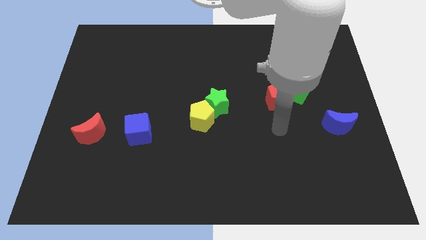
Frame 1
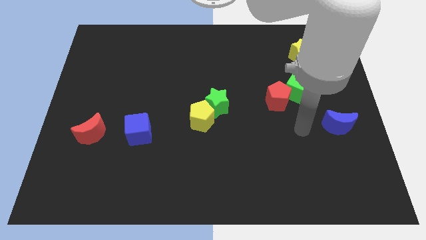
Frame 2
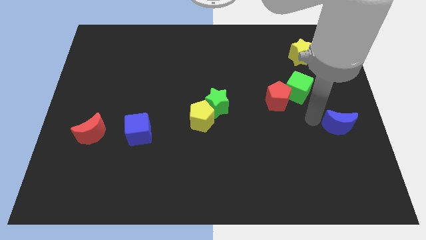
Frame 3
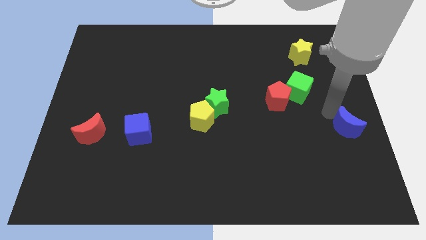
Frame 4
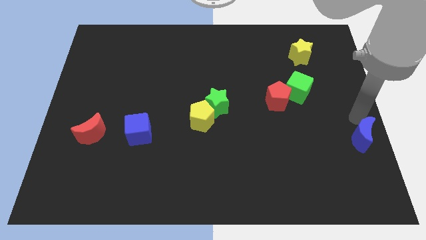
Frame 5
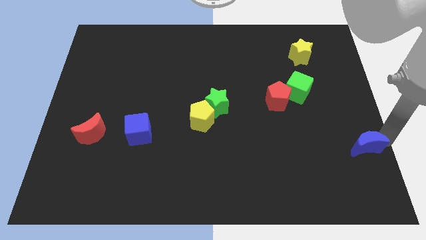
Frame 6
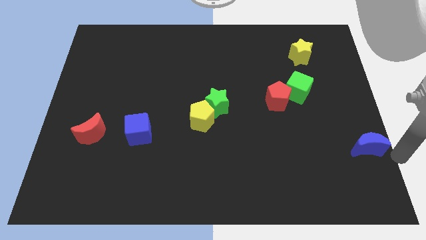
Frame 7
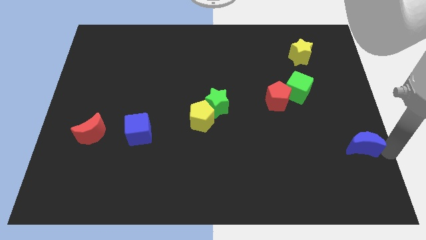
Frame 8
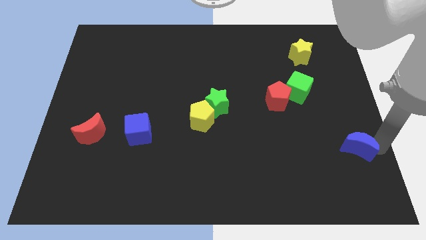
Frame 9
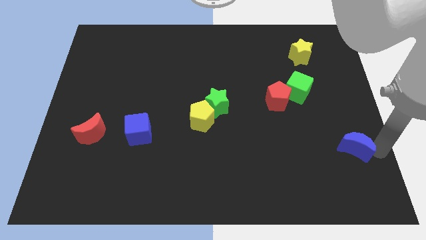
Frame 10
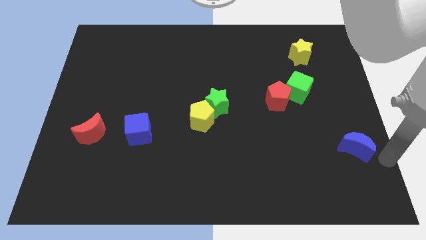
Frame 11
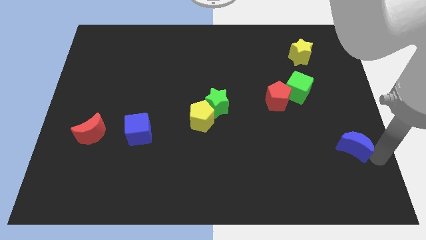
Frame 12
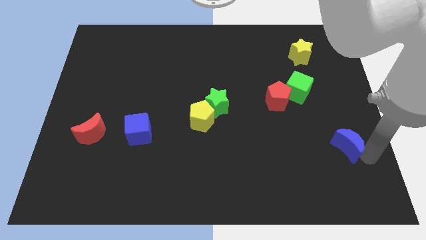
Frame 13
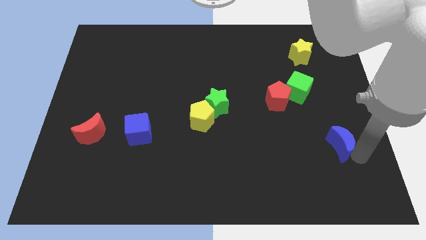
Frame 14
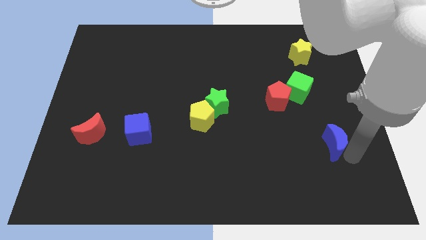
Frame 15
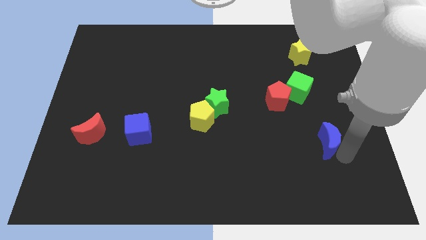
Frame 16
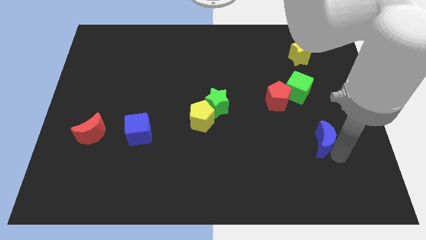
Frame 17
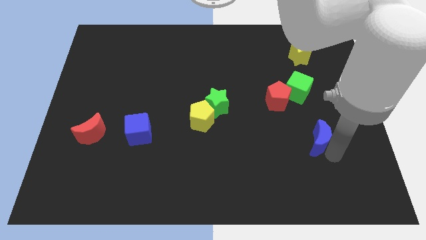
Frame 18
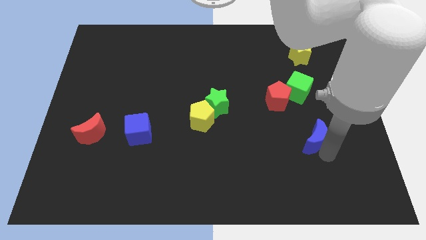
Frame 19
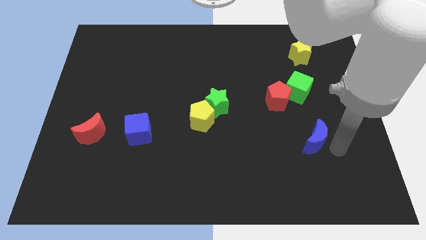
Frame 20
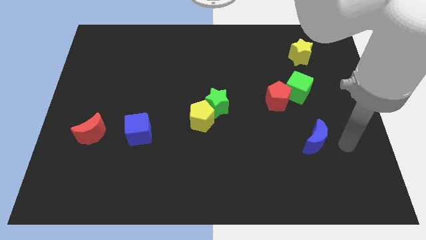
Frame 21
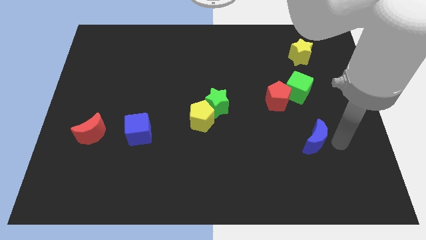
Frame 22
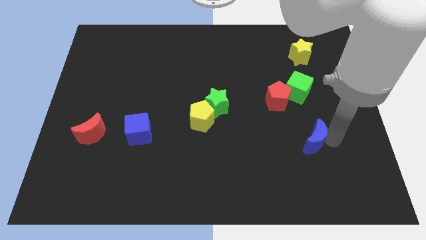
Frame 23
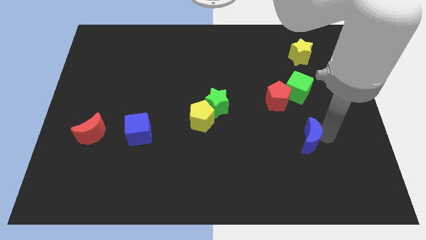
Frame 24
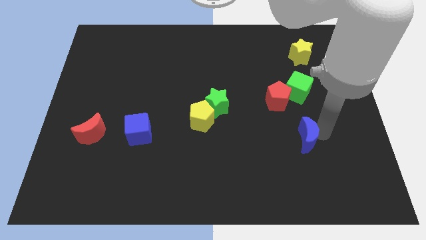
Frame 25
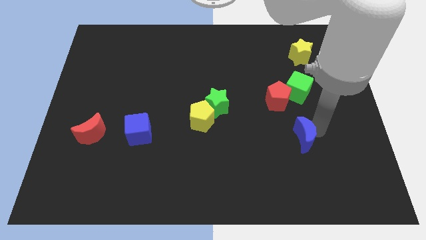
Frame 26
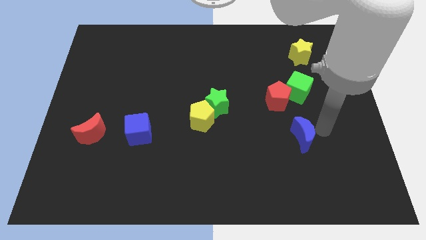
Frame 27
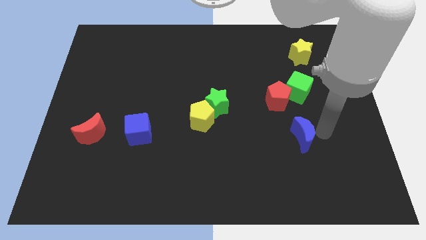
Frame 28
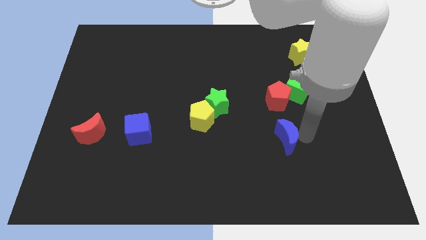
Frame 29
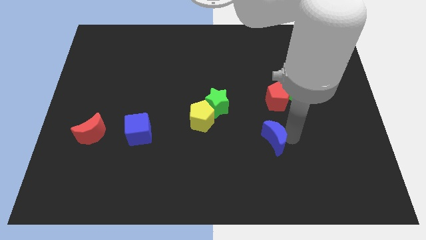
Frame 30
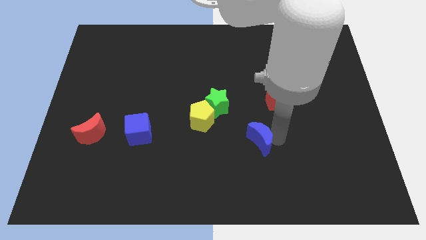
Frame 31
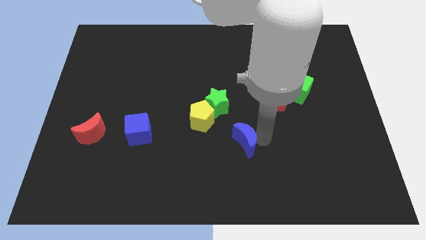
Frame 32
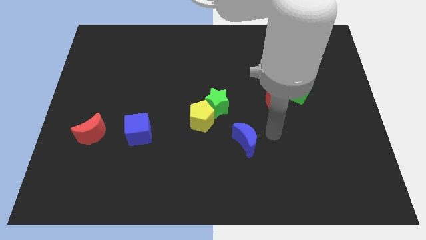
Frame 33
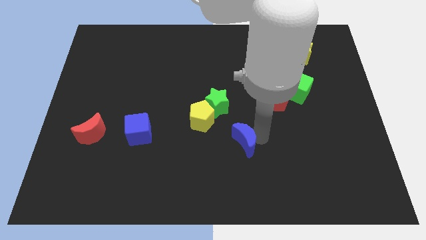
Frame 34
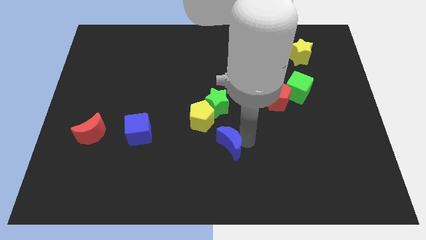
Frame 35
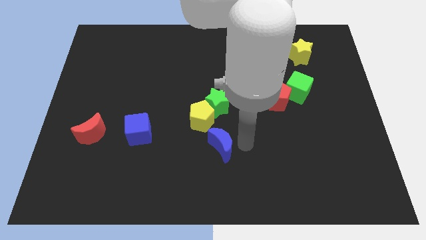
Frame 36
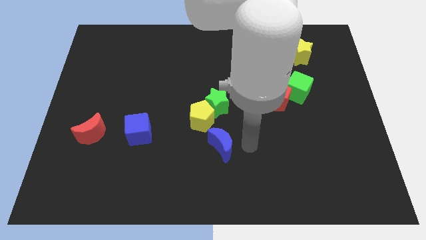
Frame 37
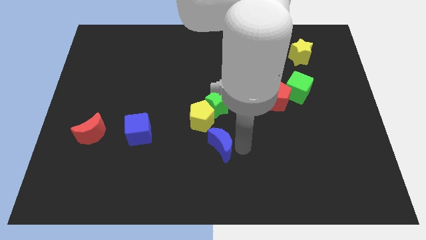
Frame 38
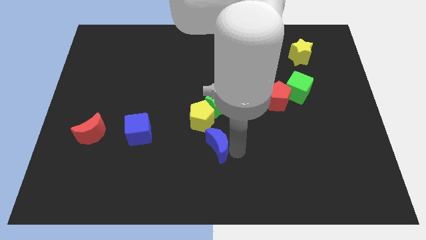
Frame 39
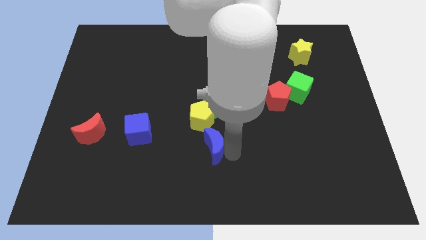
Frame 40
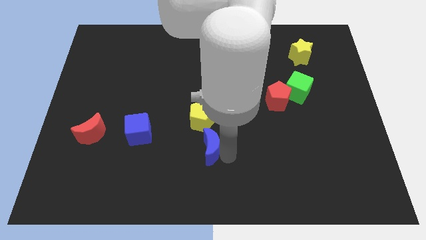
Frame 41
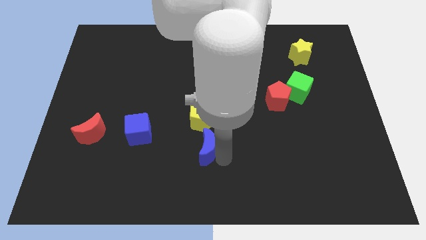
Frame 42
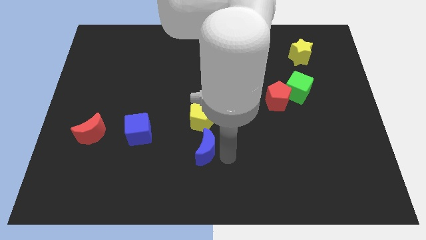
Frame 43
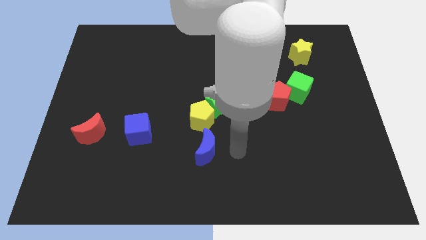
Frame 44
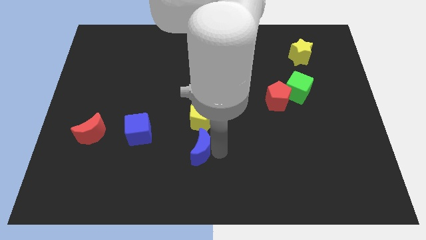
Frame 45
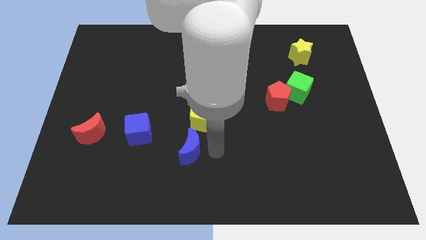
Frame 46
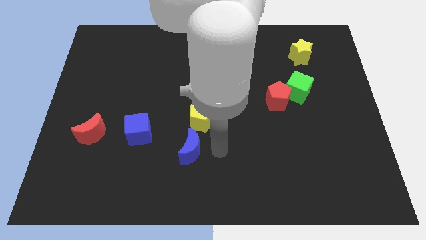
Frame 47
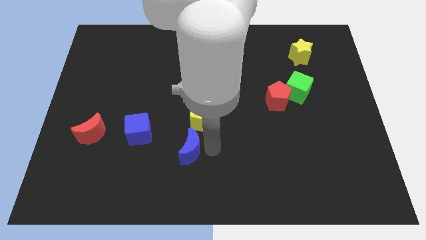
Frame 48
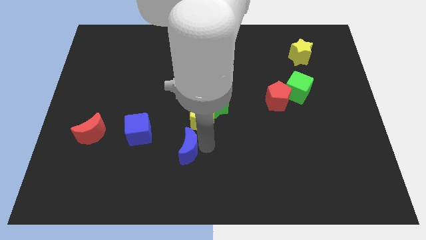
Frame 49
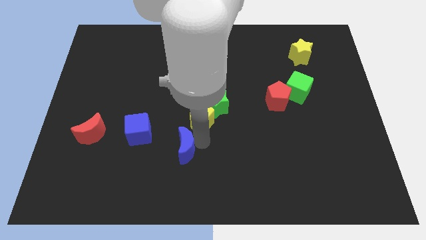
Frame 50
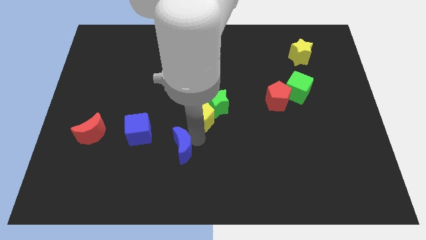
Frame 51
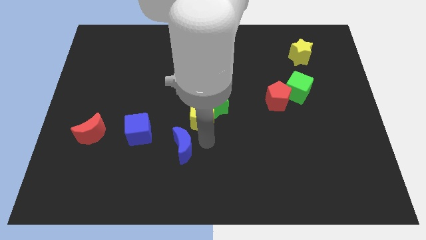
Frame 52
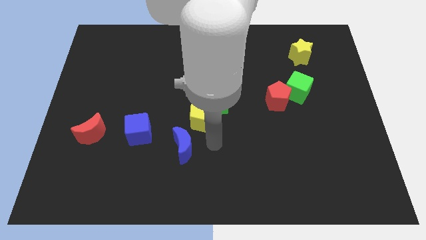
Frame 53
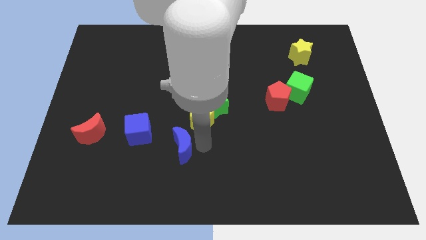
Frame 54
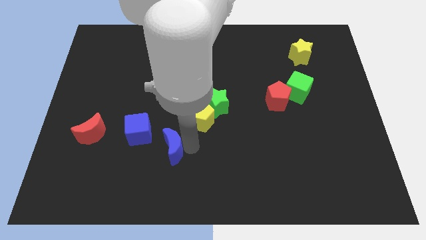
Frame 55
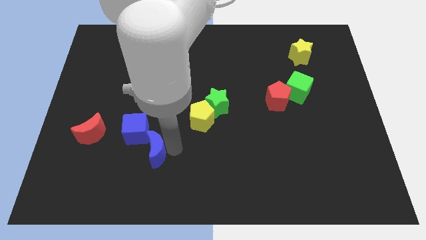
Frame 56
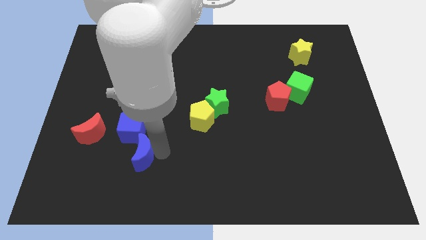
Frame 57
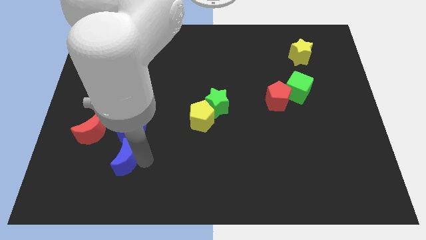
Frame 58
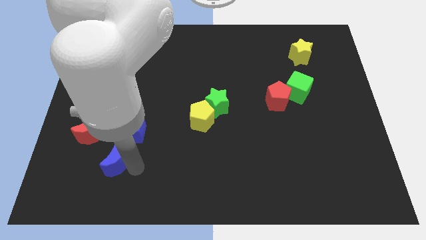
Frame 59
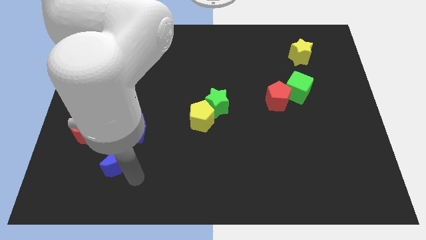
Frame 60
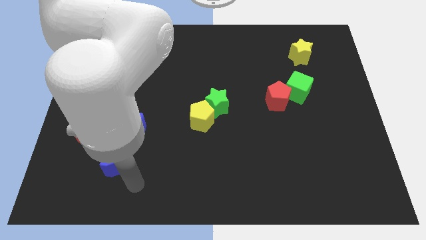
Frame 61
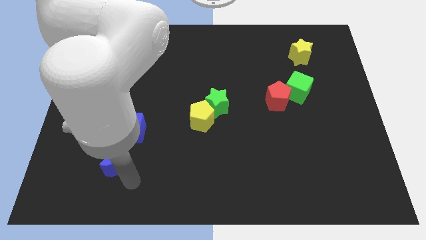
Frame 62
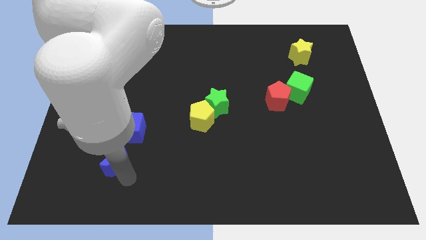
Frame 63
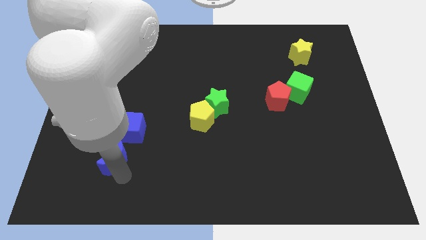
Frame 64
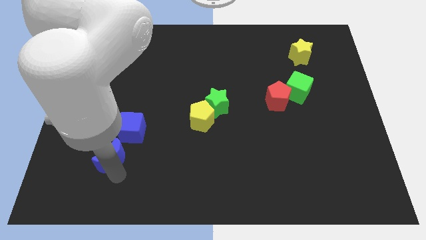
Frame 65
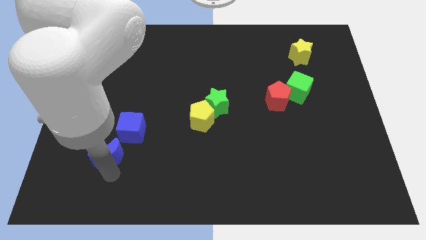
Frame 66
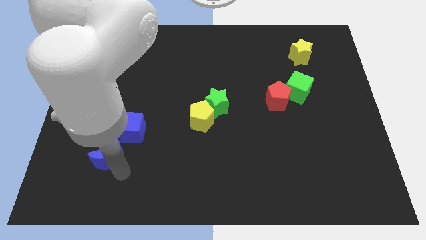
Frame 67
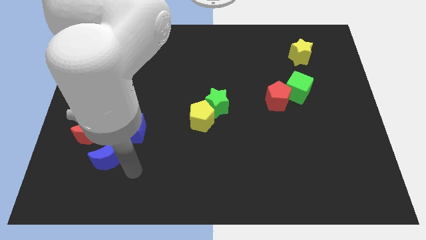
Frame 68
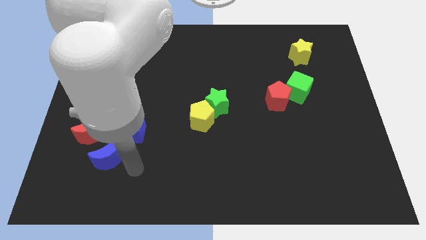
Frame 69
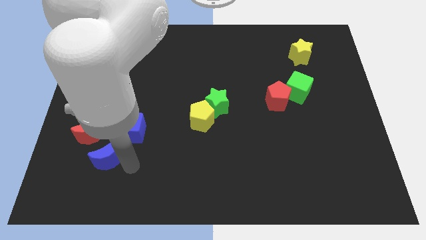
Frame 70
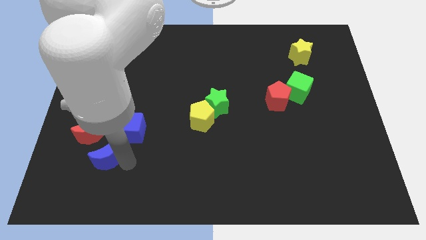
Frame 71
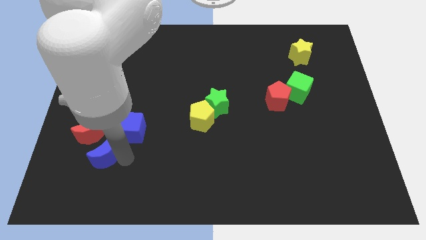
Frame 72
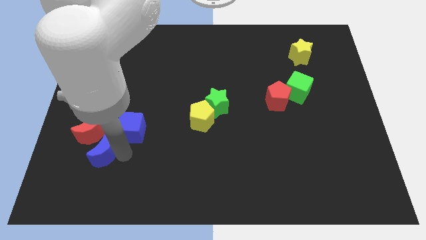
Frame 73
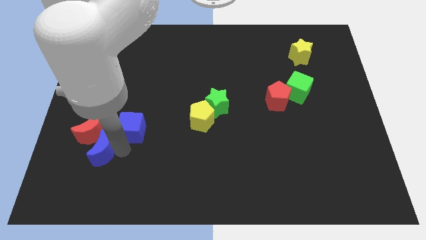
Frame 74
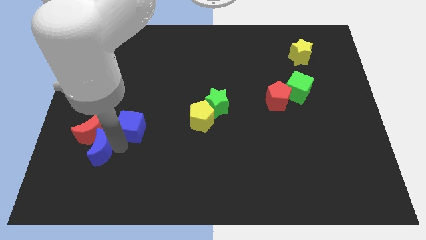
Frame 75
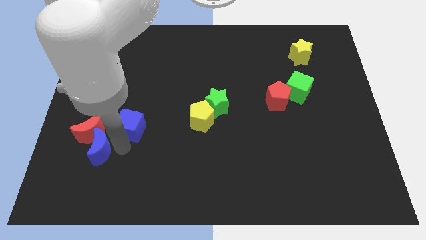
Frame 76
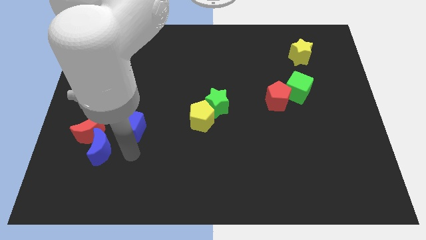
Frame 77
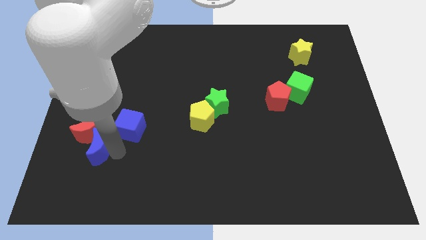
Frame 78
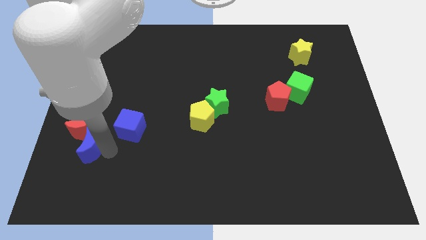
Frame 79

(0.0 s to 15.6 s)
move the blue moon just left of the blue cube
